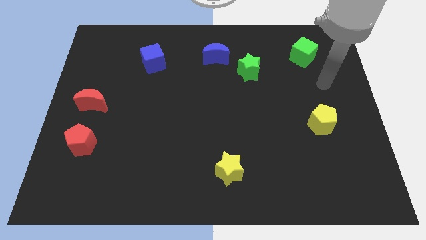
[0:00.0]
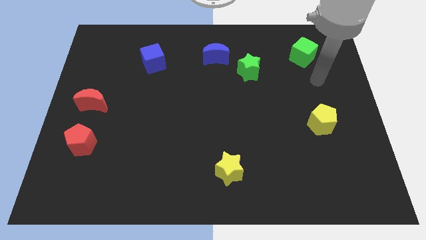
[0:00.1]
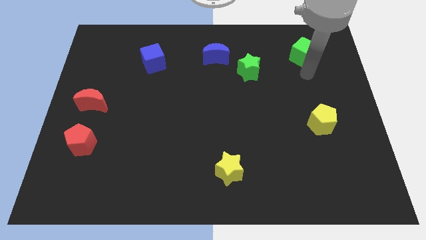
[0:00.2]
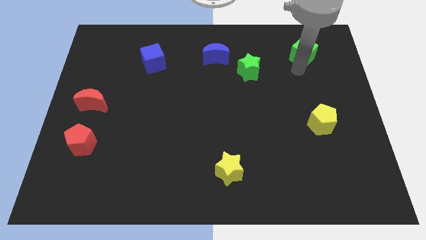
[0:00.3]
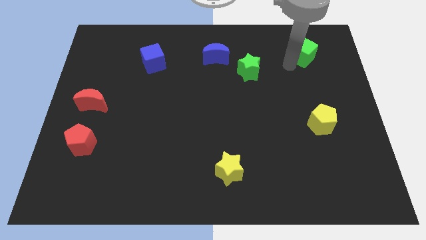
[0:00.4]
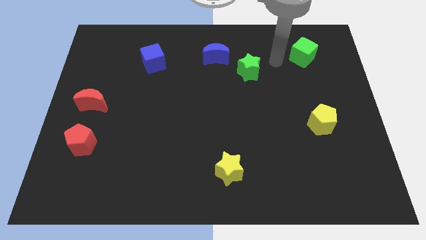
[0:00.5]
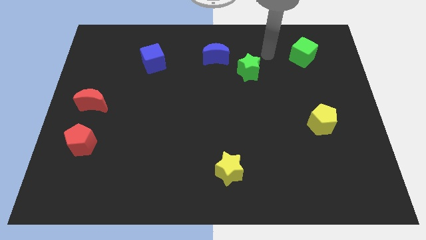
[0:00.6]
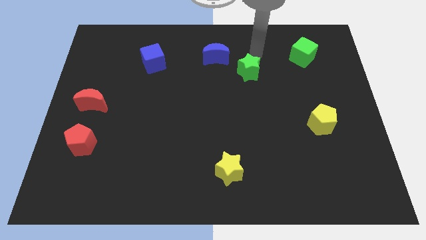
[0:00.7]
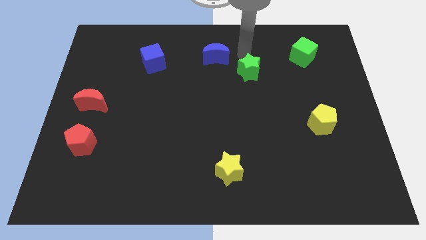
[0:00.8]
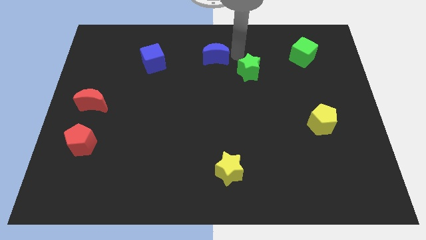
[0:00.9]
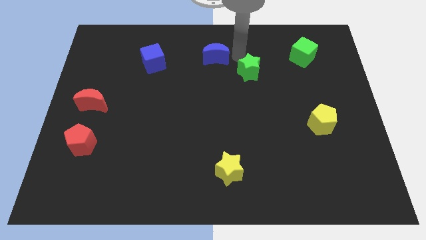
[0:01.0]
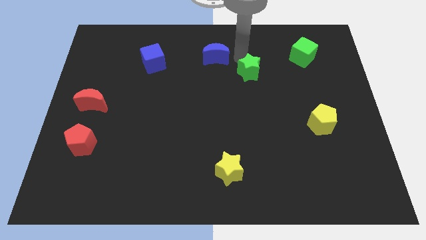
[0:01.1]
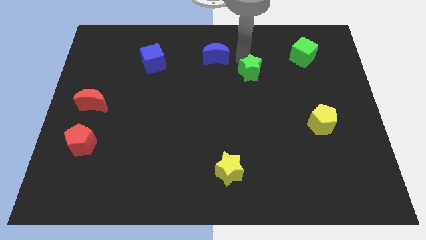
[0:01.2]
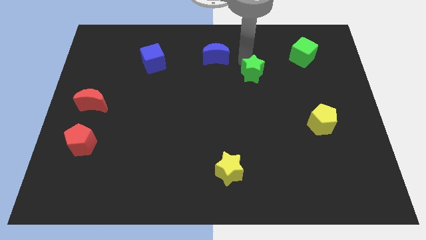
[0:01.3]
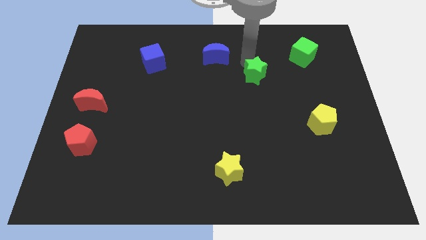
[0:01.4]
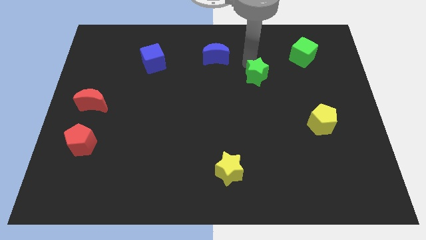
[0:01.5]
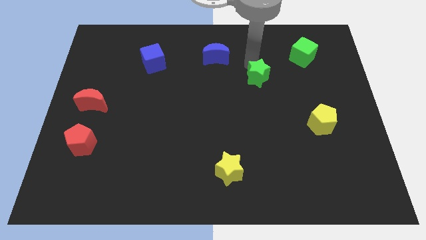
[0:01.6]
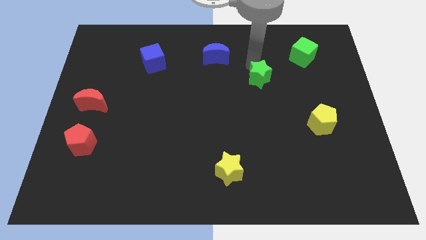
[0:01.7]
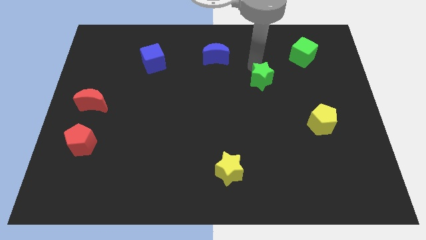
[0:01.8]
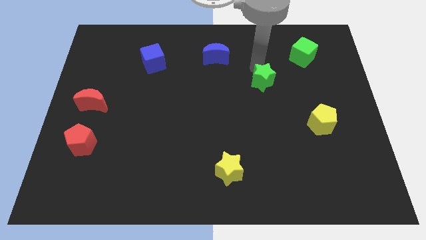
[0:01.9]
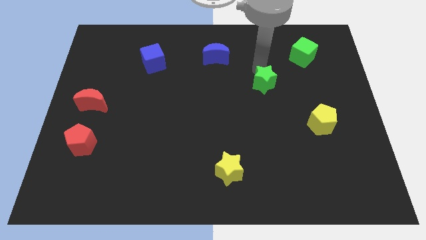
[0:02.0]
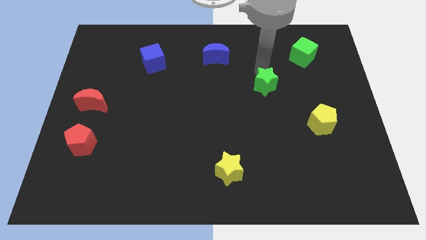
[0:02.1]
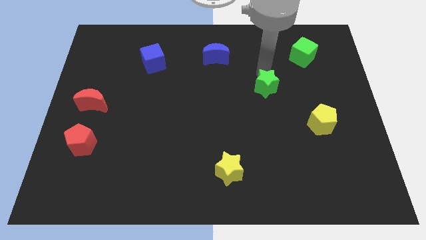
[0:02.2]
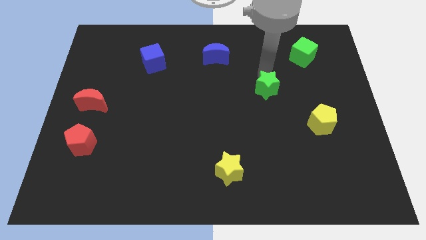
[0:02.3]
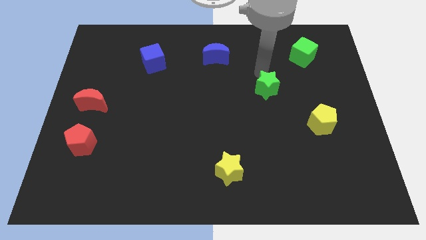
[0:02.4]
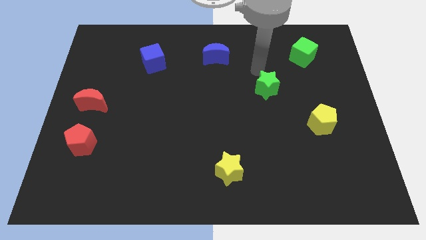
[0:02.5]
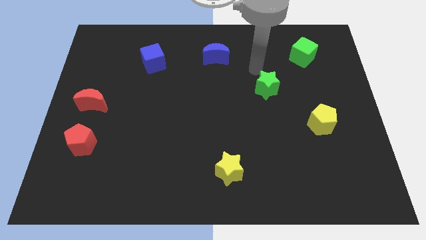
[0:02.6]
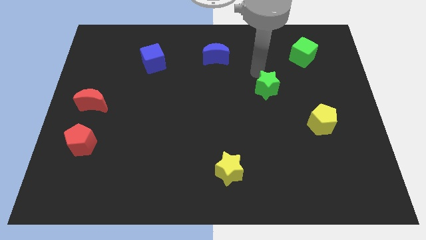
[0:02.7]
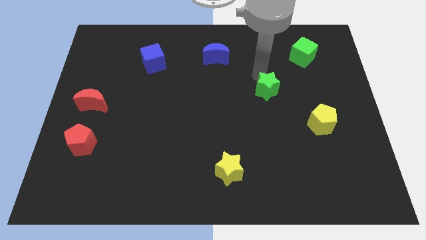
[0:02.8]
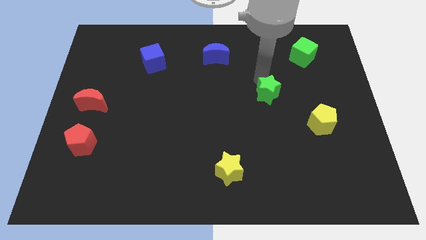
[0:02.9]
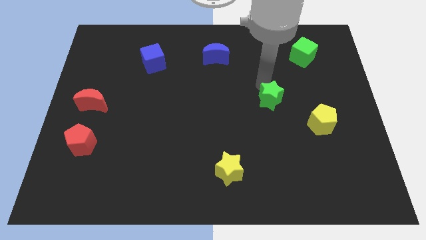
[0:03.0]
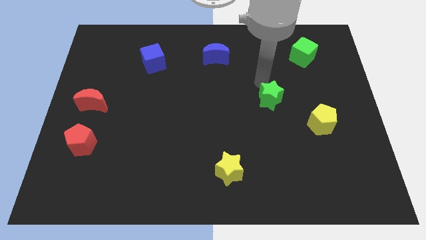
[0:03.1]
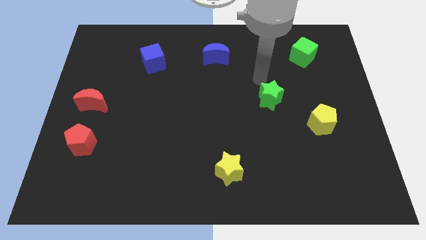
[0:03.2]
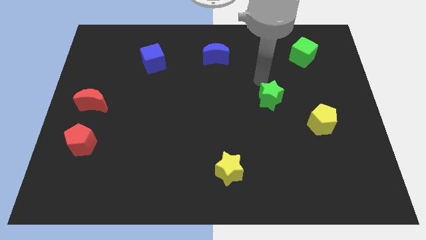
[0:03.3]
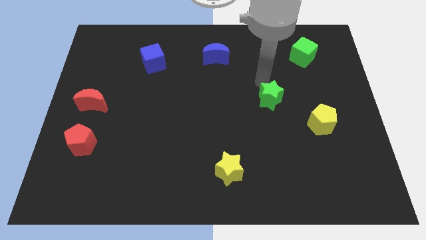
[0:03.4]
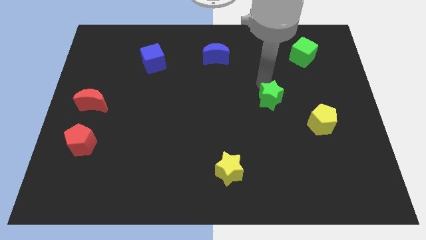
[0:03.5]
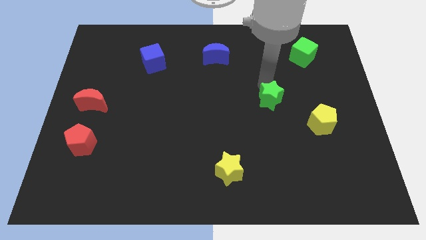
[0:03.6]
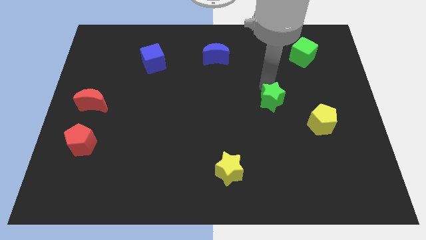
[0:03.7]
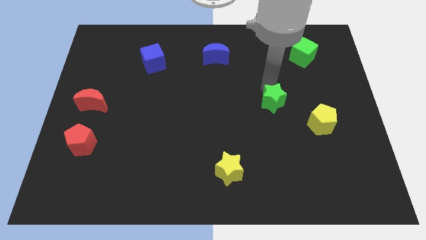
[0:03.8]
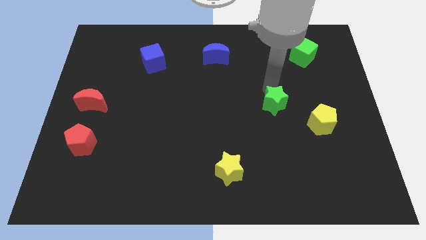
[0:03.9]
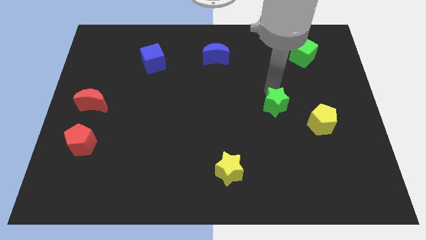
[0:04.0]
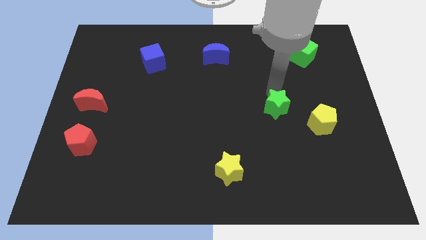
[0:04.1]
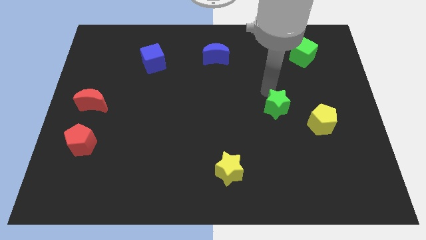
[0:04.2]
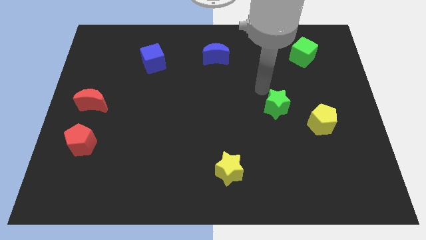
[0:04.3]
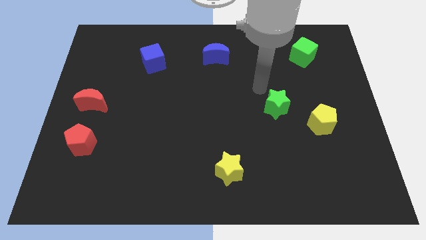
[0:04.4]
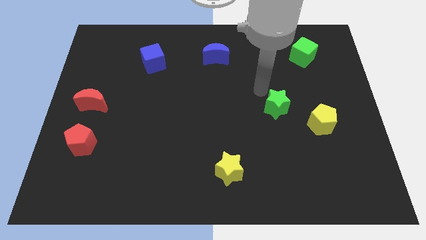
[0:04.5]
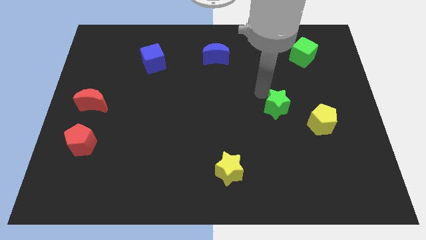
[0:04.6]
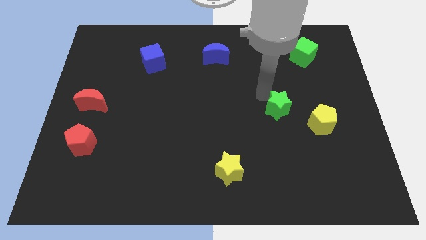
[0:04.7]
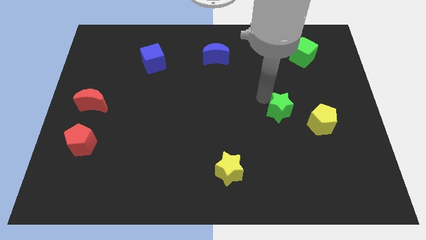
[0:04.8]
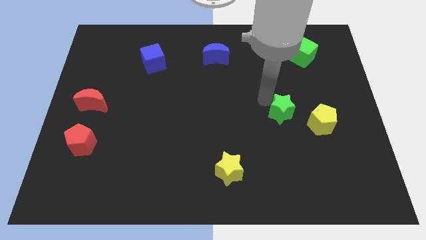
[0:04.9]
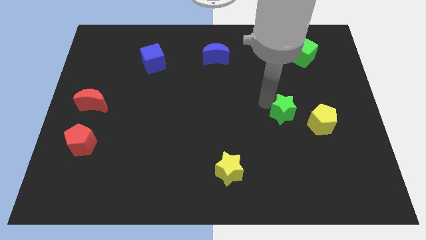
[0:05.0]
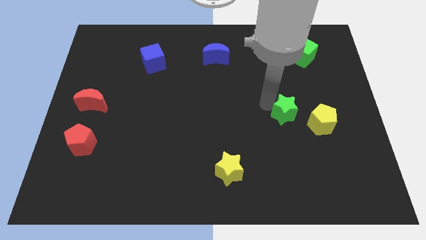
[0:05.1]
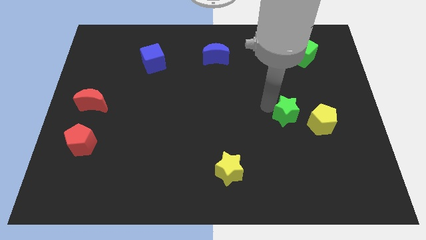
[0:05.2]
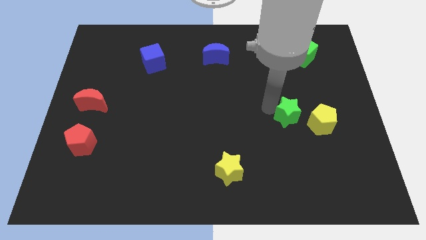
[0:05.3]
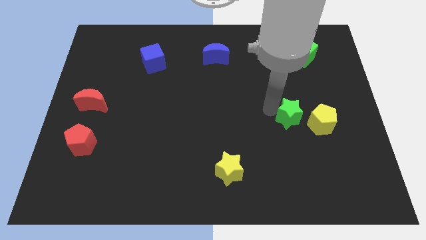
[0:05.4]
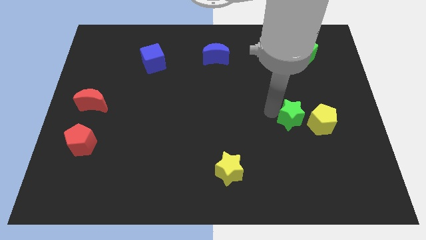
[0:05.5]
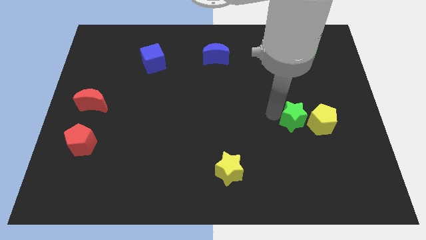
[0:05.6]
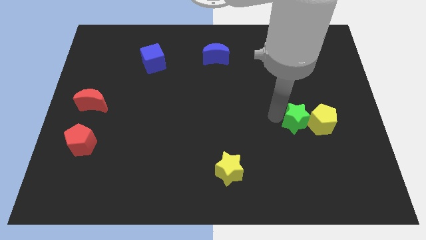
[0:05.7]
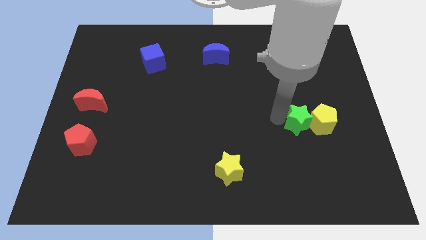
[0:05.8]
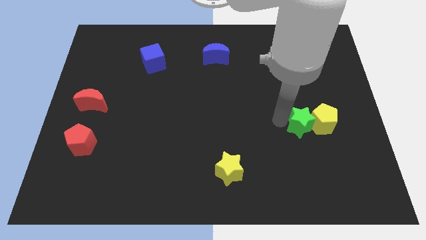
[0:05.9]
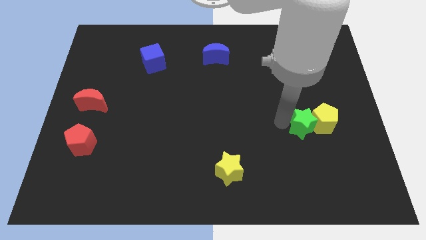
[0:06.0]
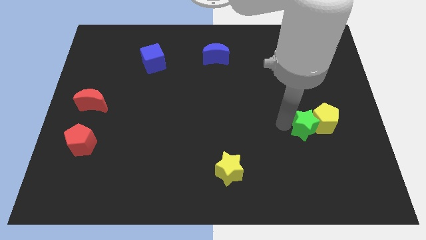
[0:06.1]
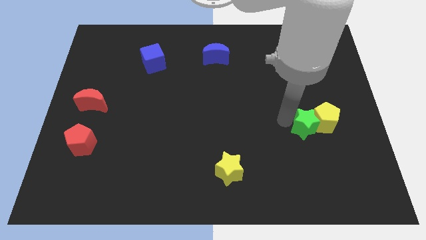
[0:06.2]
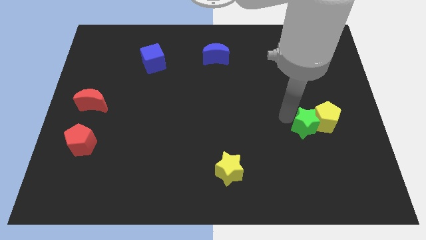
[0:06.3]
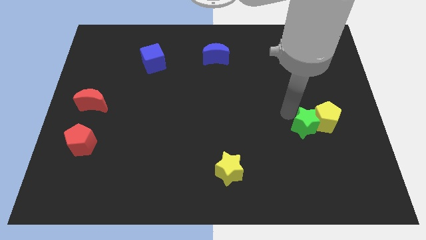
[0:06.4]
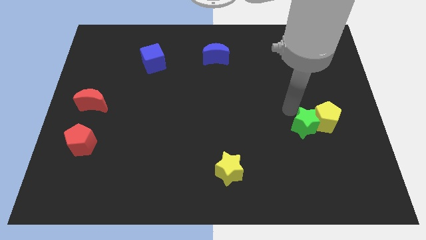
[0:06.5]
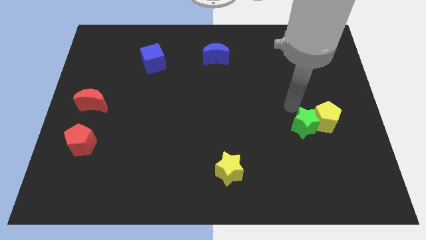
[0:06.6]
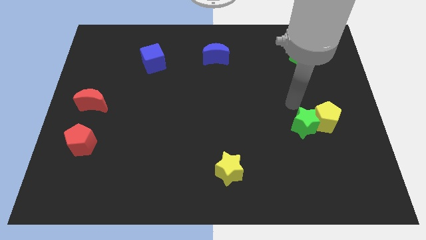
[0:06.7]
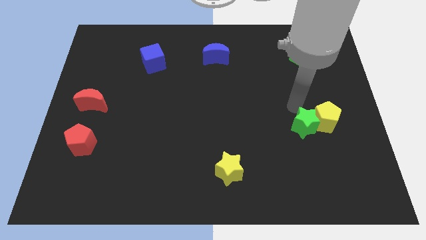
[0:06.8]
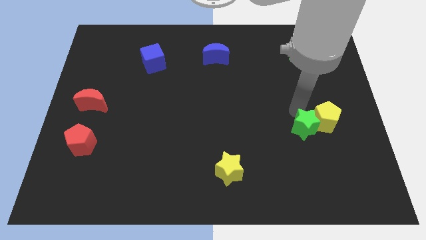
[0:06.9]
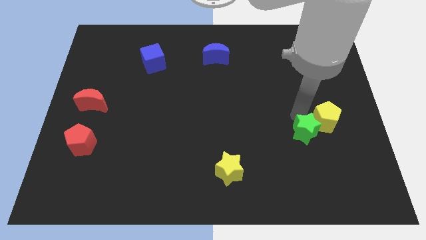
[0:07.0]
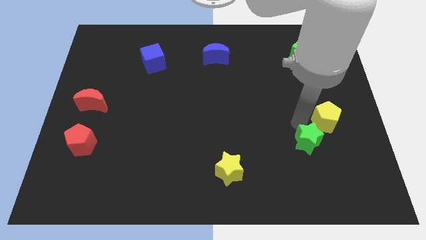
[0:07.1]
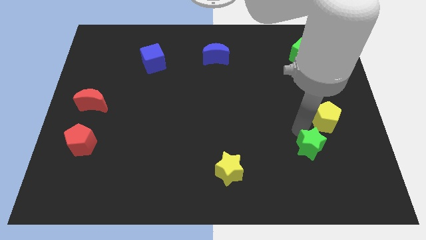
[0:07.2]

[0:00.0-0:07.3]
put the green star to the bottom side of the yellow pentagon
